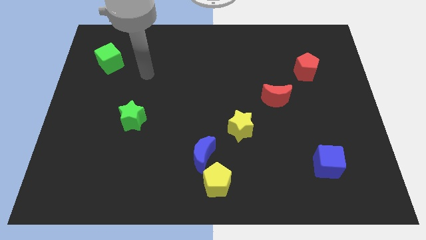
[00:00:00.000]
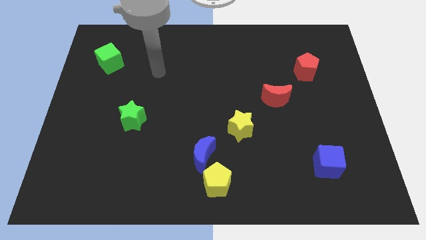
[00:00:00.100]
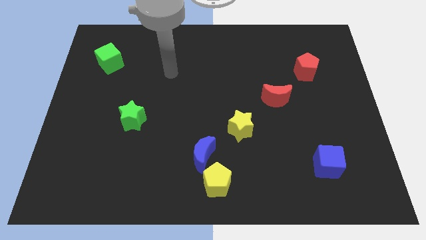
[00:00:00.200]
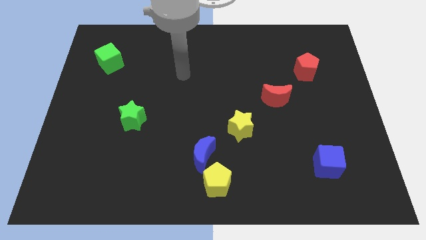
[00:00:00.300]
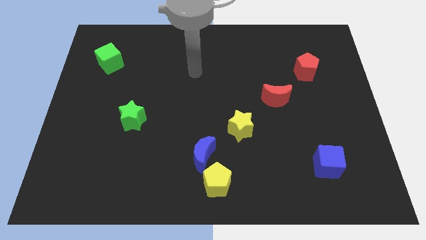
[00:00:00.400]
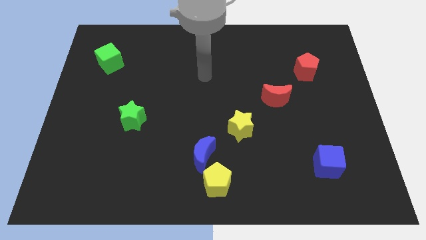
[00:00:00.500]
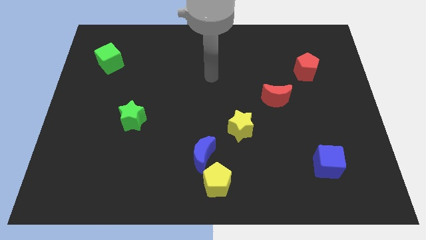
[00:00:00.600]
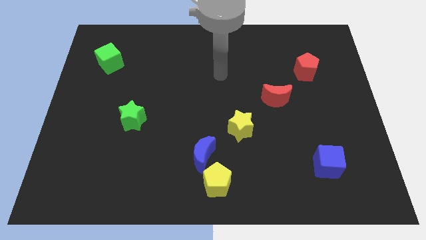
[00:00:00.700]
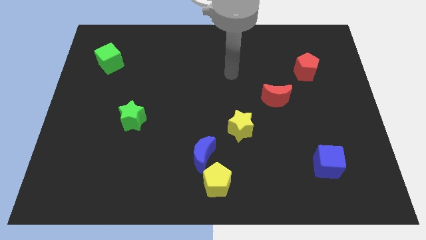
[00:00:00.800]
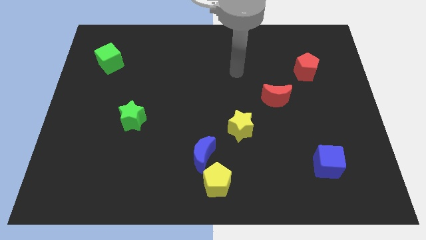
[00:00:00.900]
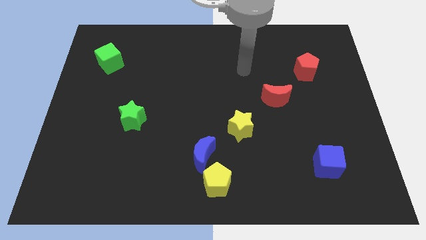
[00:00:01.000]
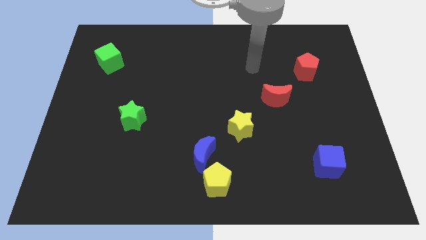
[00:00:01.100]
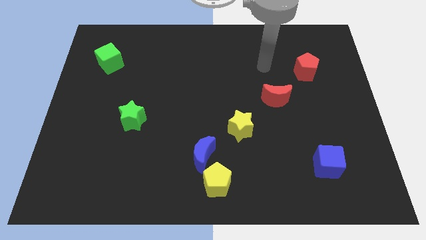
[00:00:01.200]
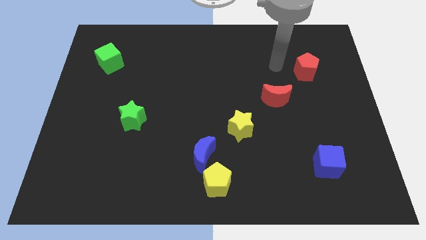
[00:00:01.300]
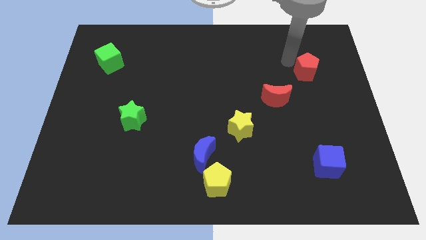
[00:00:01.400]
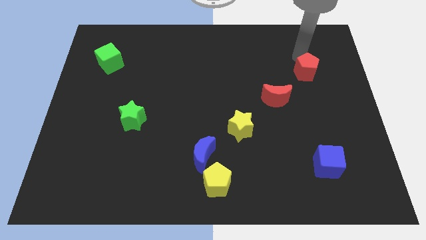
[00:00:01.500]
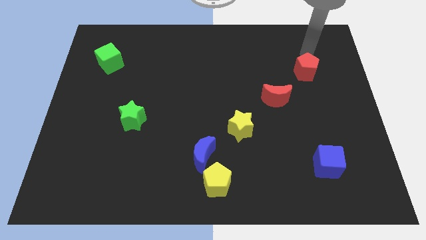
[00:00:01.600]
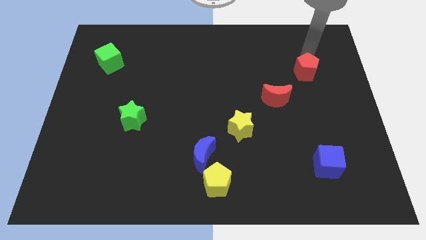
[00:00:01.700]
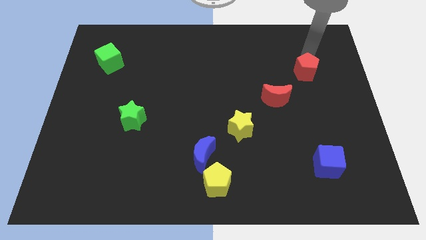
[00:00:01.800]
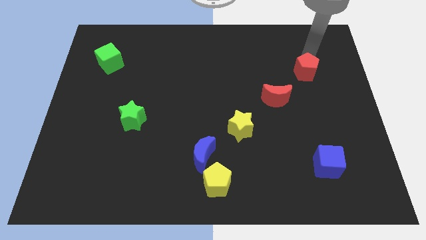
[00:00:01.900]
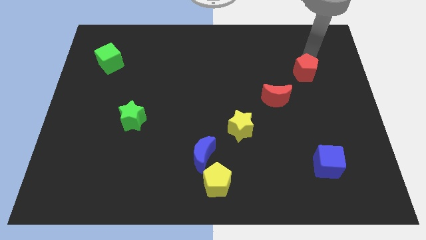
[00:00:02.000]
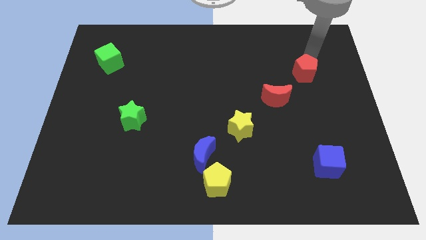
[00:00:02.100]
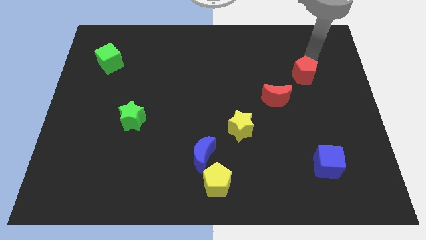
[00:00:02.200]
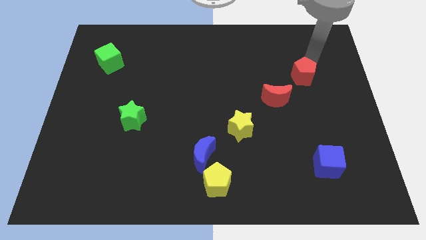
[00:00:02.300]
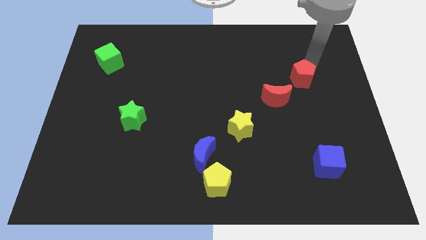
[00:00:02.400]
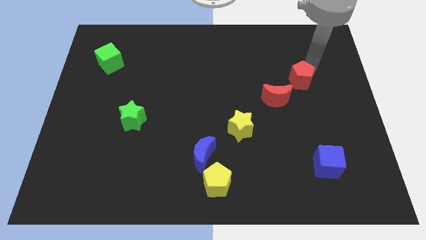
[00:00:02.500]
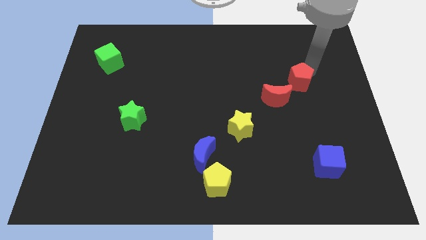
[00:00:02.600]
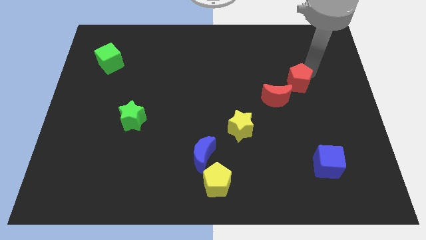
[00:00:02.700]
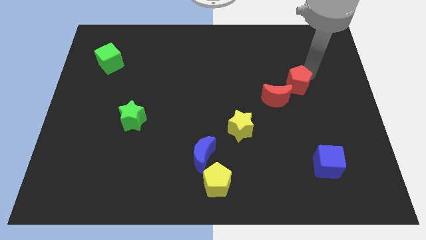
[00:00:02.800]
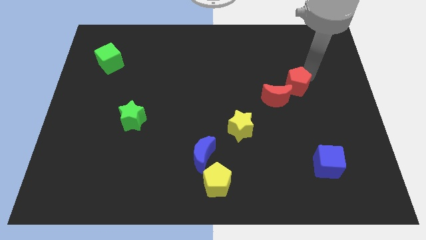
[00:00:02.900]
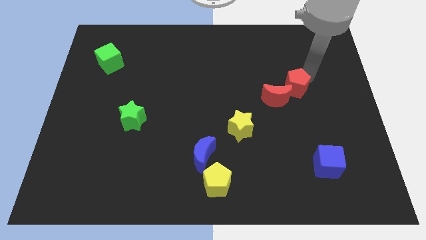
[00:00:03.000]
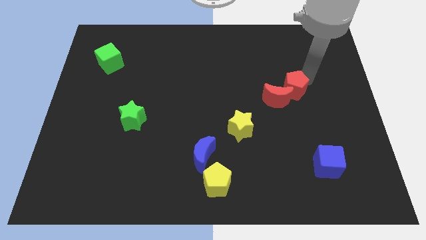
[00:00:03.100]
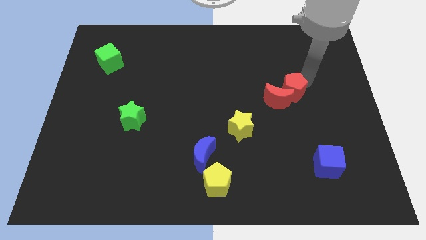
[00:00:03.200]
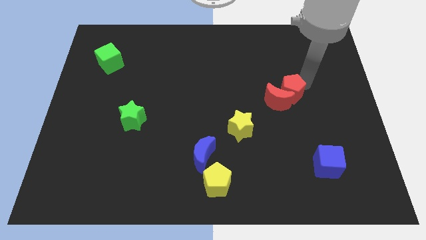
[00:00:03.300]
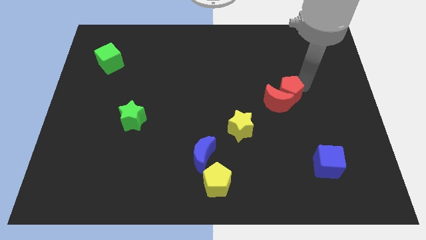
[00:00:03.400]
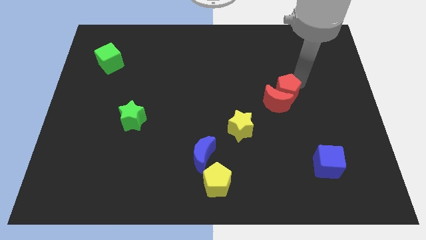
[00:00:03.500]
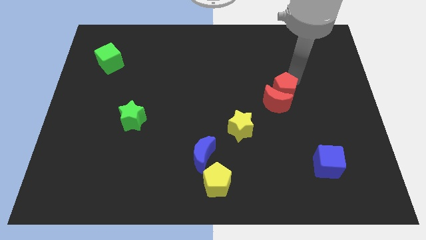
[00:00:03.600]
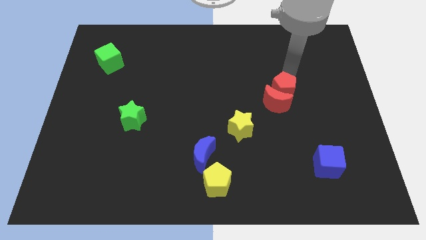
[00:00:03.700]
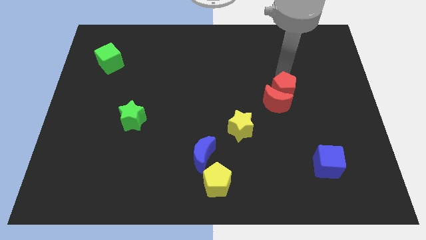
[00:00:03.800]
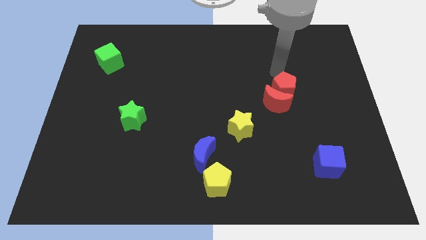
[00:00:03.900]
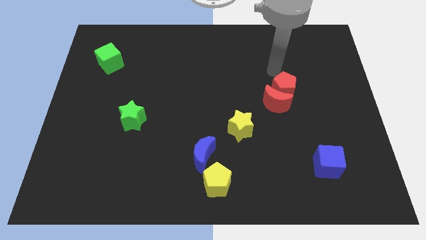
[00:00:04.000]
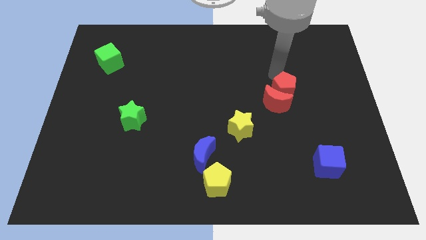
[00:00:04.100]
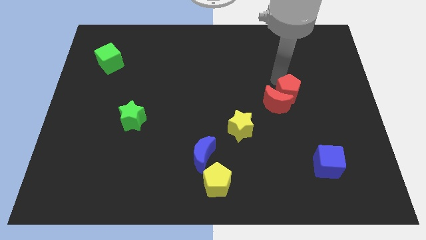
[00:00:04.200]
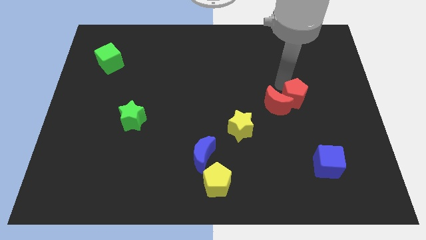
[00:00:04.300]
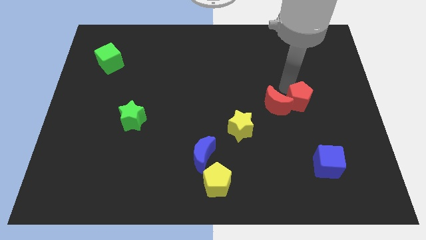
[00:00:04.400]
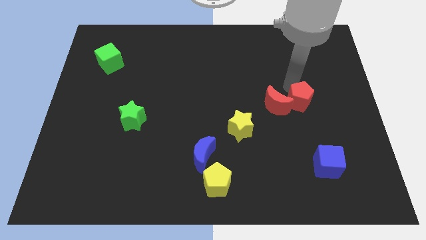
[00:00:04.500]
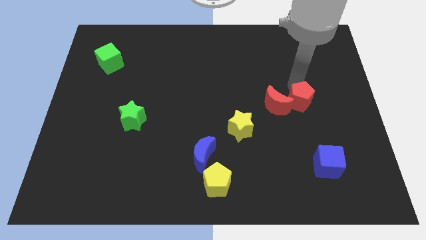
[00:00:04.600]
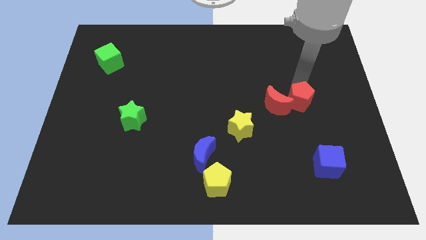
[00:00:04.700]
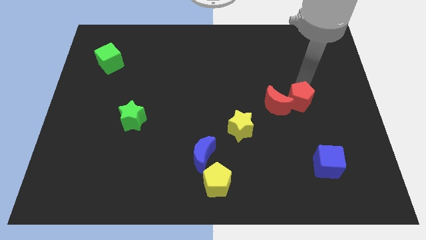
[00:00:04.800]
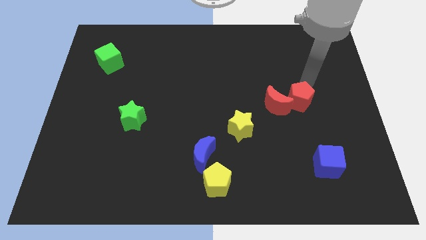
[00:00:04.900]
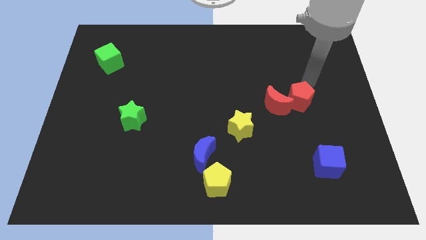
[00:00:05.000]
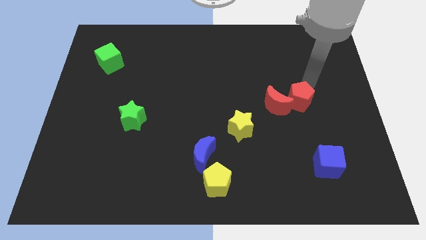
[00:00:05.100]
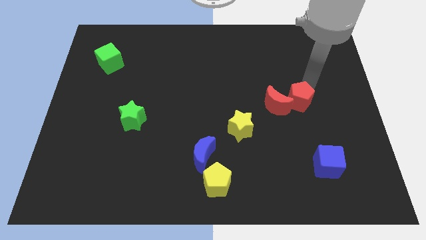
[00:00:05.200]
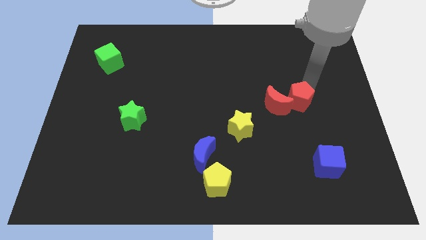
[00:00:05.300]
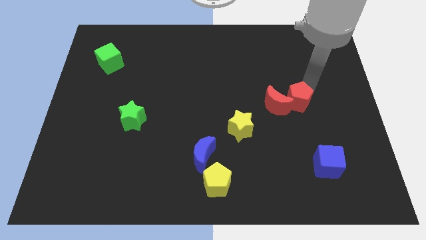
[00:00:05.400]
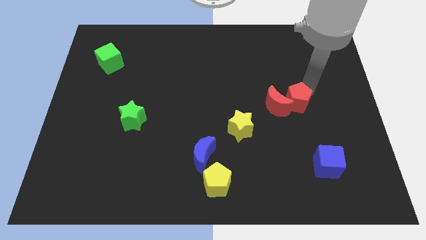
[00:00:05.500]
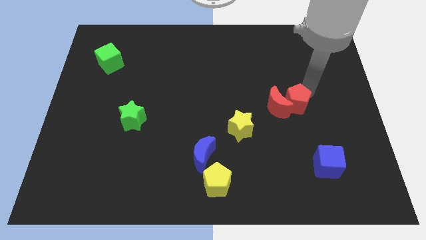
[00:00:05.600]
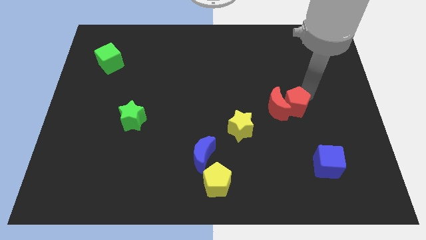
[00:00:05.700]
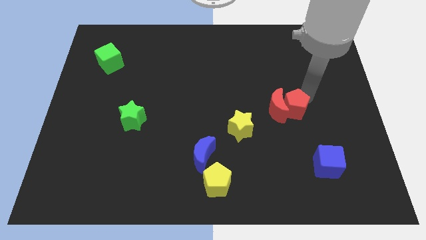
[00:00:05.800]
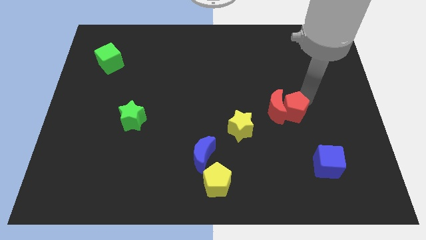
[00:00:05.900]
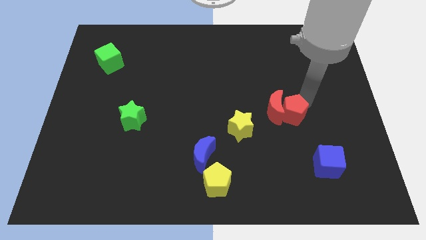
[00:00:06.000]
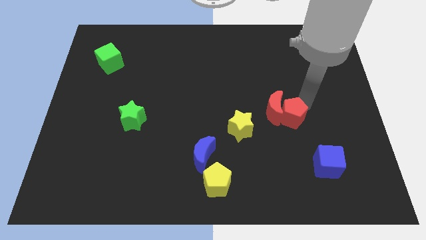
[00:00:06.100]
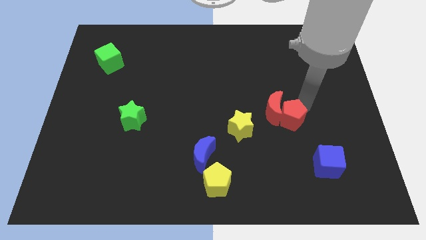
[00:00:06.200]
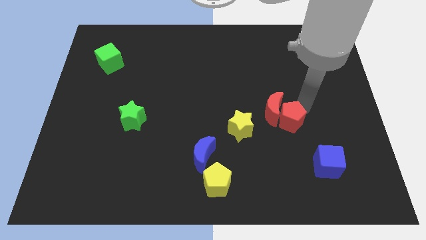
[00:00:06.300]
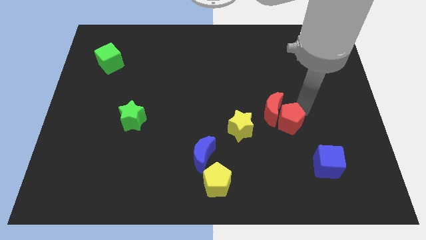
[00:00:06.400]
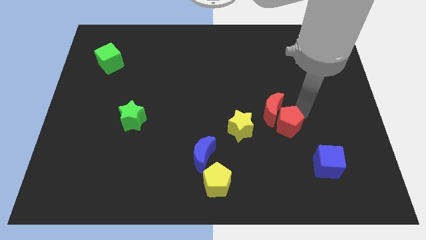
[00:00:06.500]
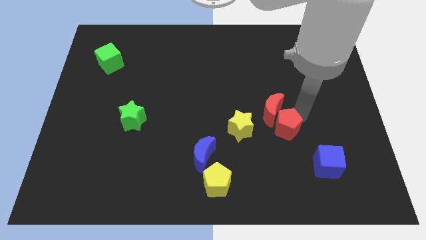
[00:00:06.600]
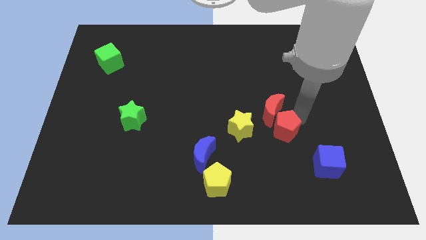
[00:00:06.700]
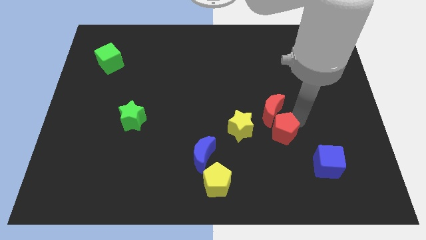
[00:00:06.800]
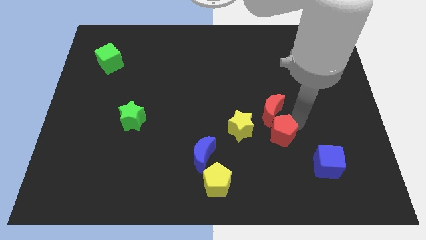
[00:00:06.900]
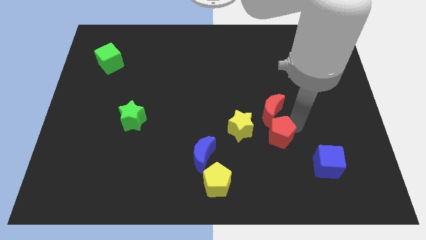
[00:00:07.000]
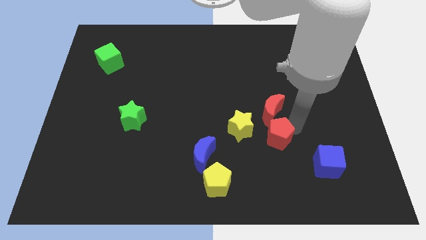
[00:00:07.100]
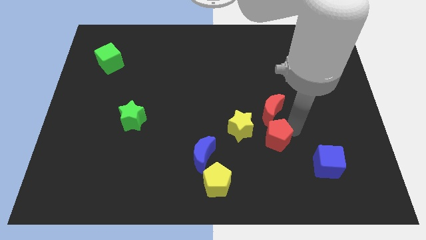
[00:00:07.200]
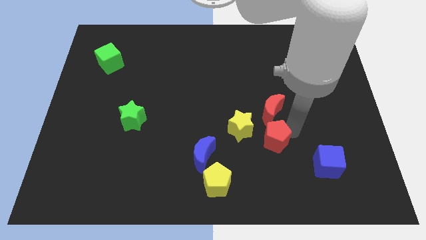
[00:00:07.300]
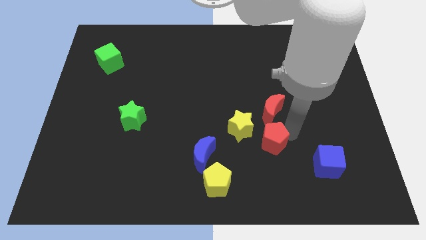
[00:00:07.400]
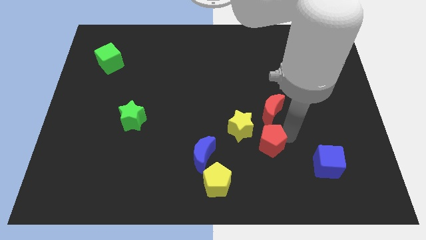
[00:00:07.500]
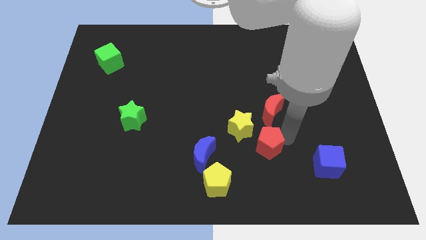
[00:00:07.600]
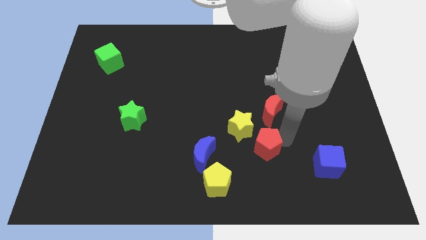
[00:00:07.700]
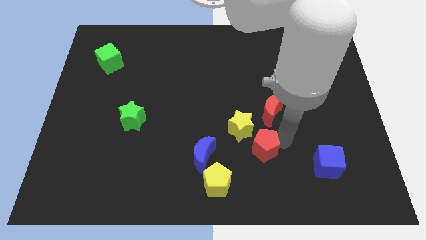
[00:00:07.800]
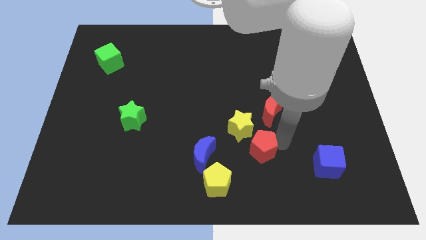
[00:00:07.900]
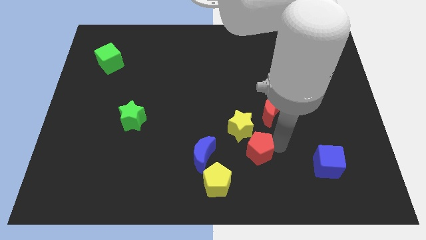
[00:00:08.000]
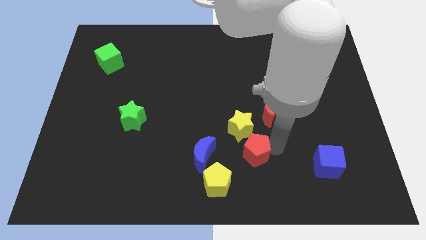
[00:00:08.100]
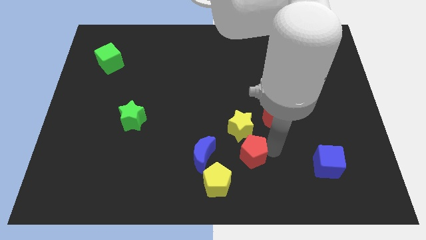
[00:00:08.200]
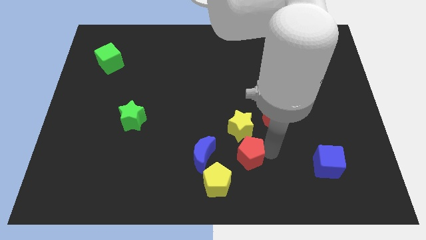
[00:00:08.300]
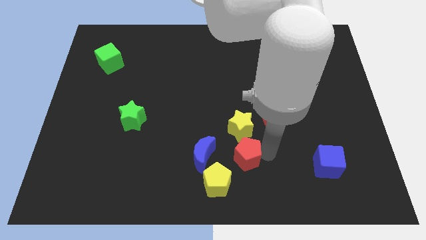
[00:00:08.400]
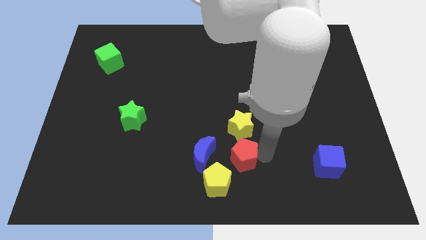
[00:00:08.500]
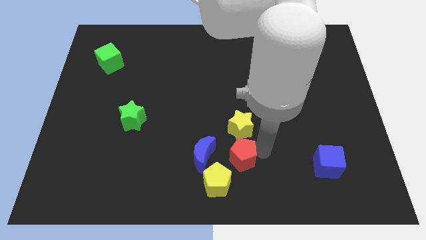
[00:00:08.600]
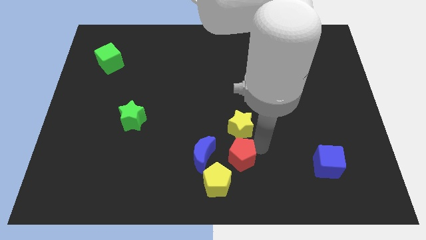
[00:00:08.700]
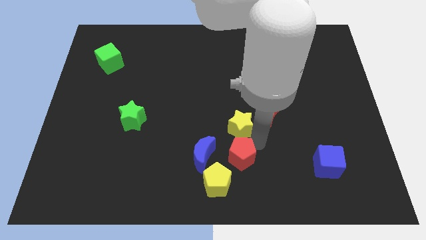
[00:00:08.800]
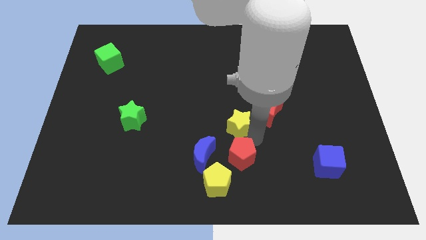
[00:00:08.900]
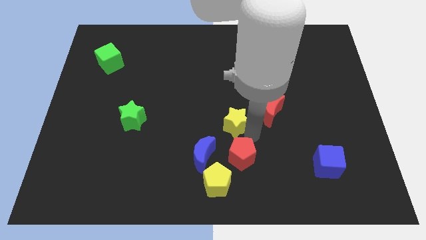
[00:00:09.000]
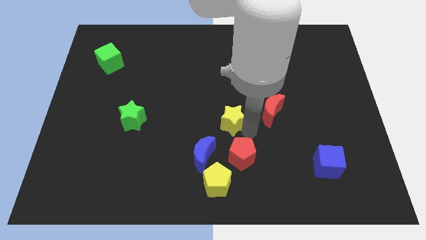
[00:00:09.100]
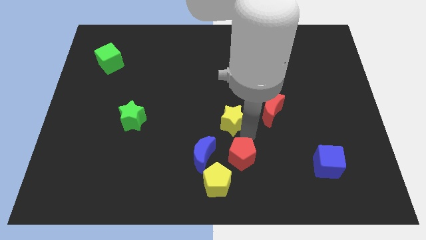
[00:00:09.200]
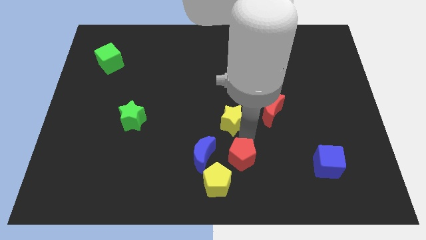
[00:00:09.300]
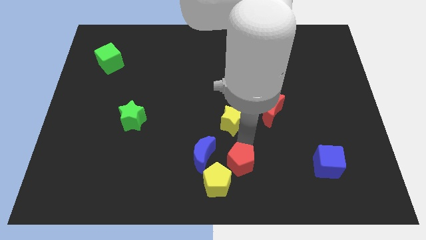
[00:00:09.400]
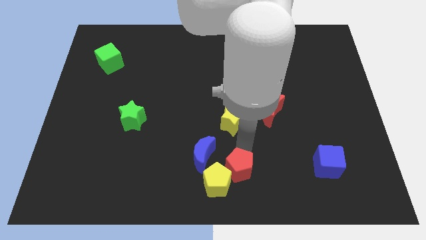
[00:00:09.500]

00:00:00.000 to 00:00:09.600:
slide the red pentagon to the yellow pentagon
